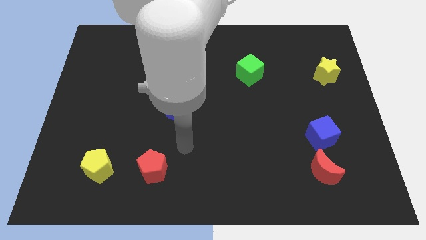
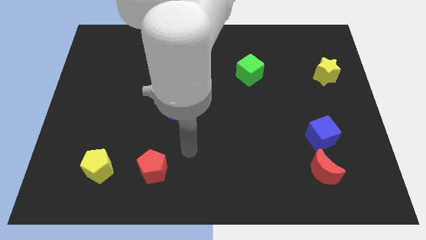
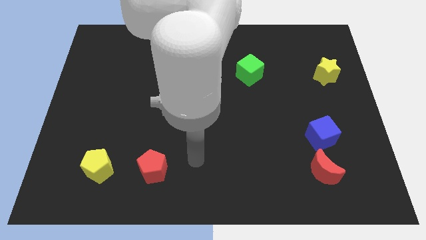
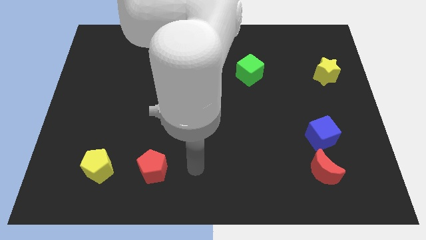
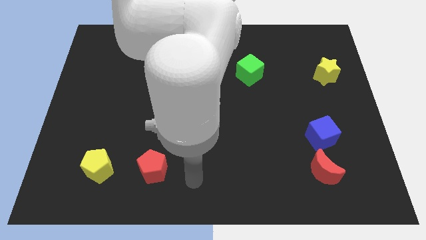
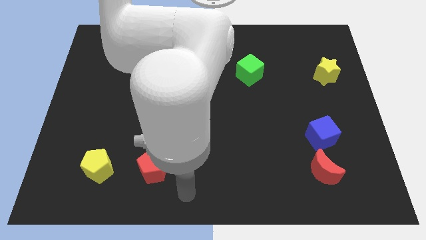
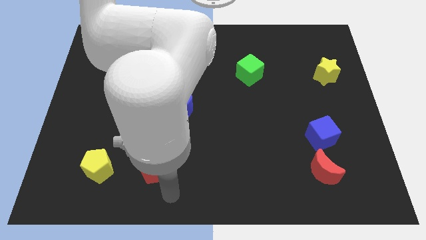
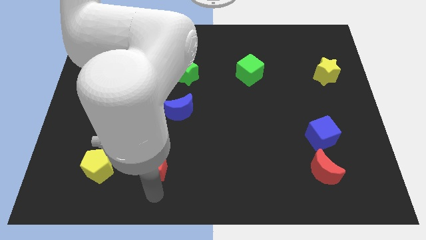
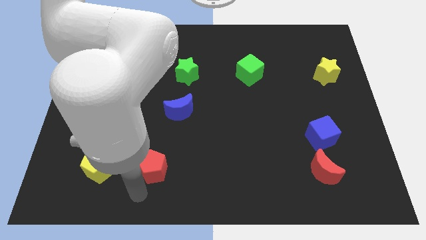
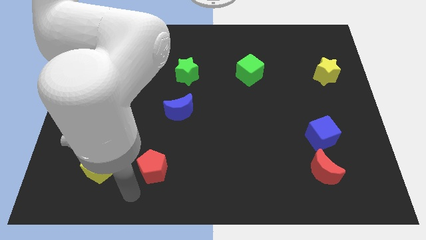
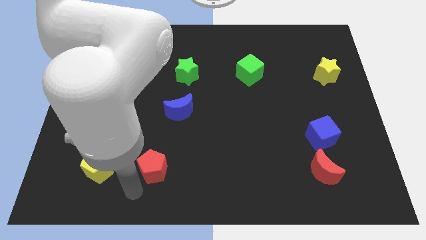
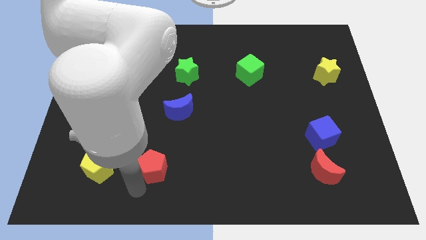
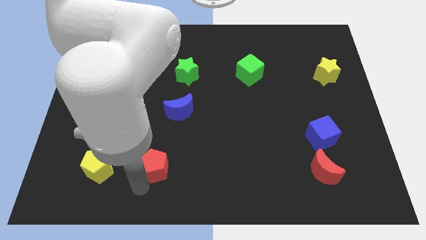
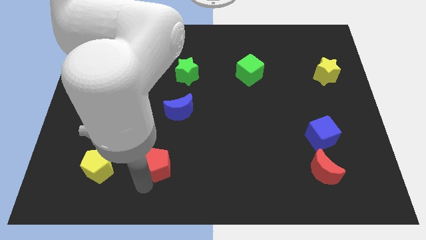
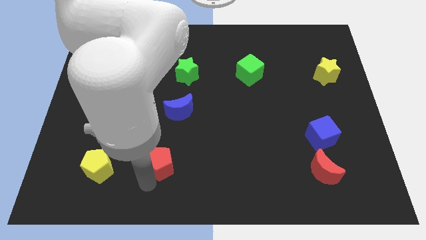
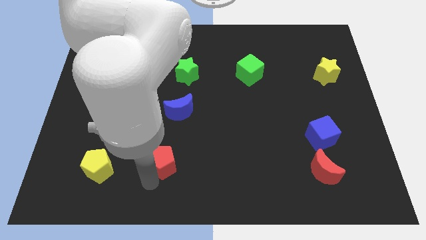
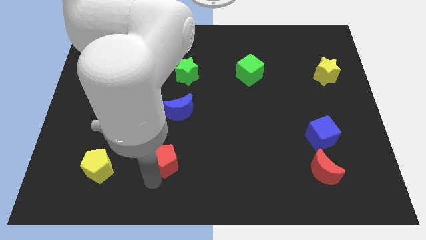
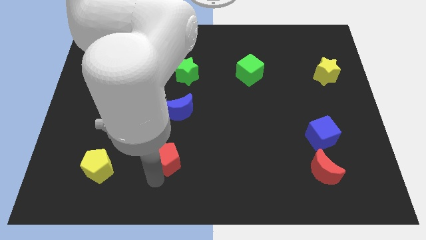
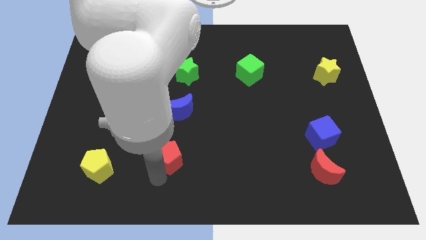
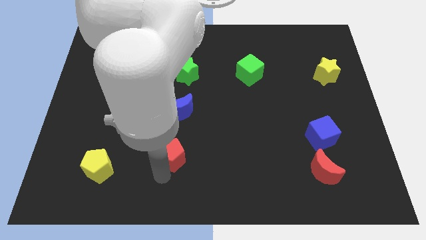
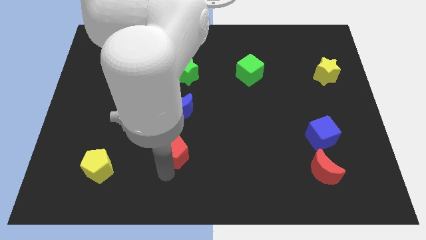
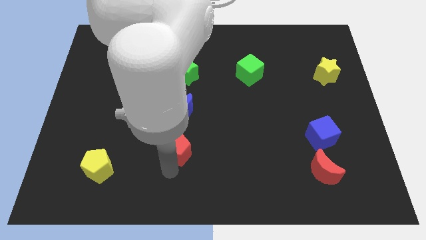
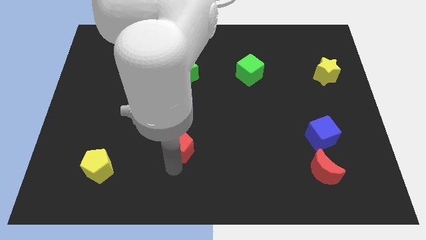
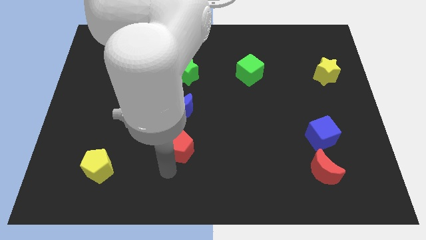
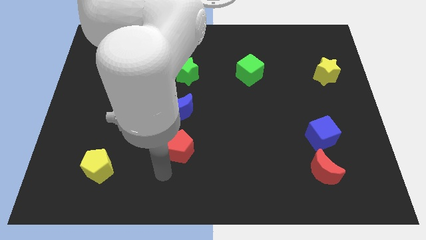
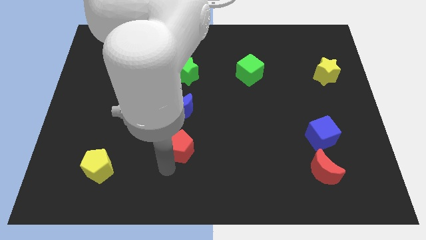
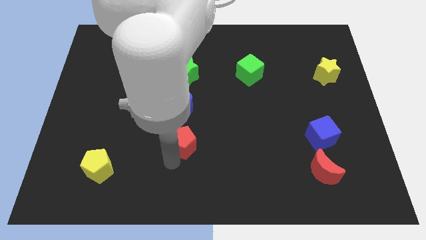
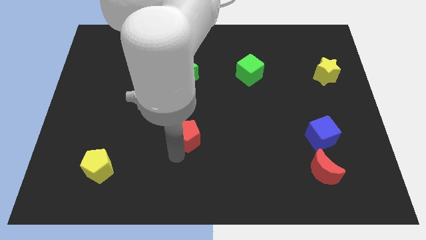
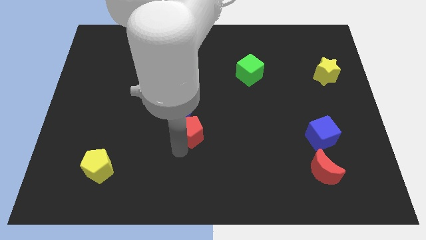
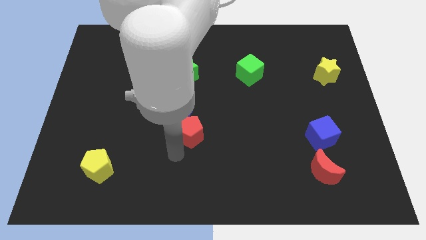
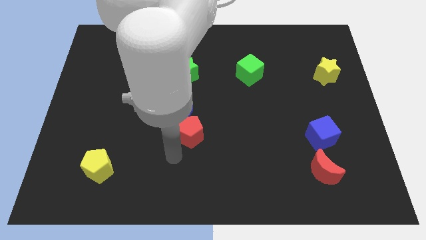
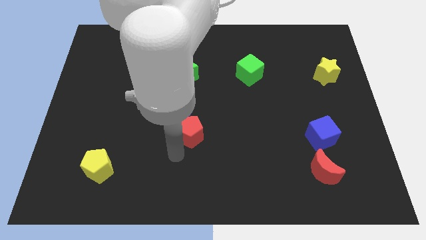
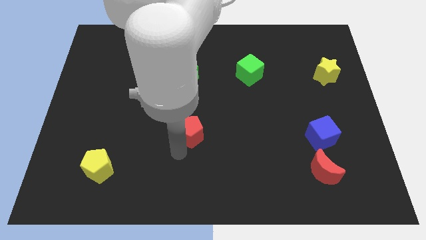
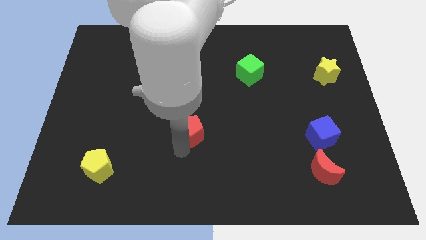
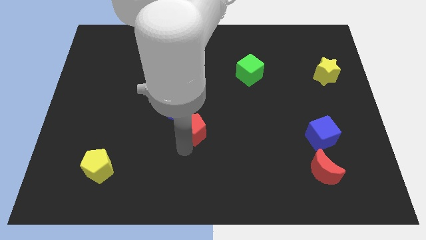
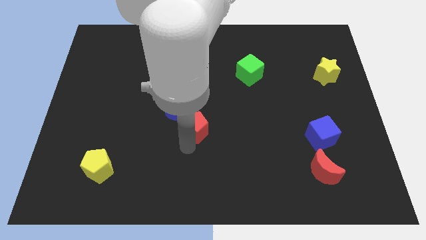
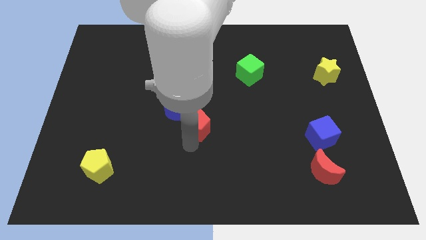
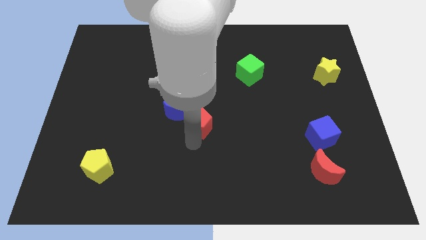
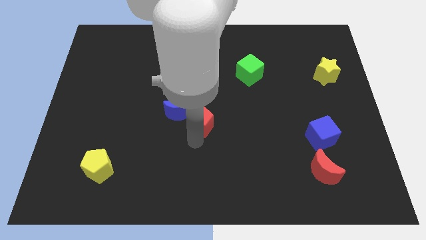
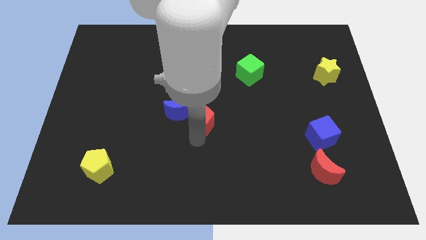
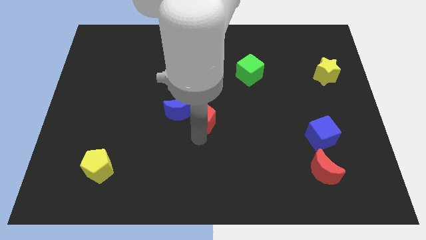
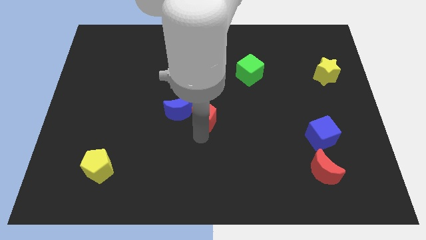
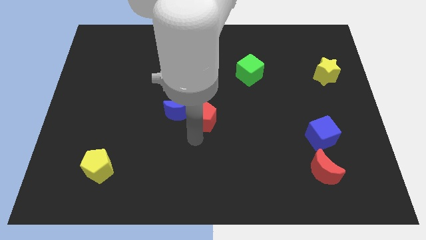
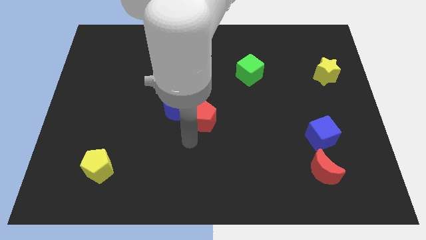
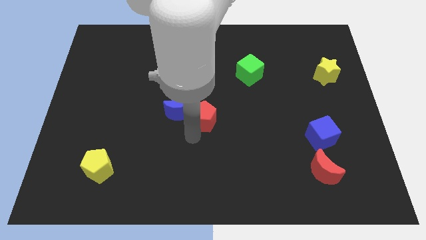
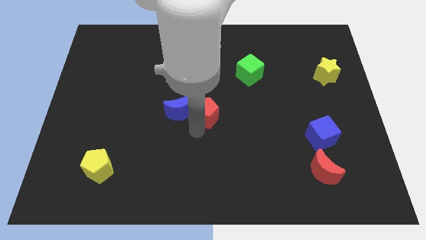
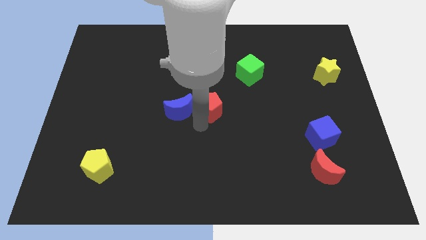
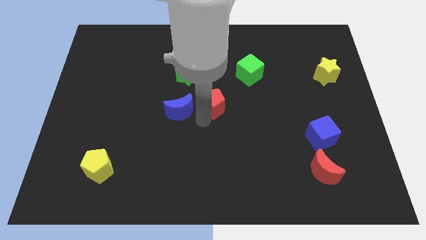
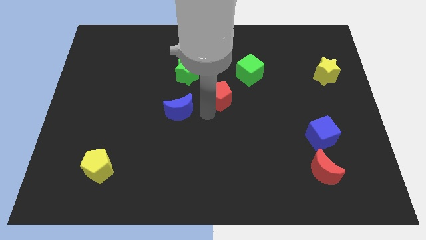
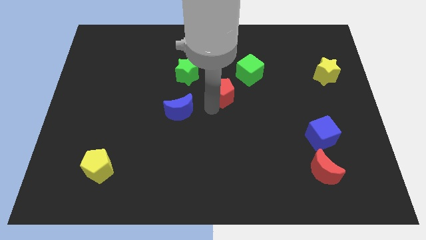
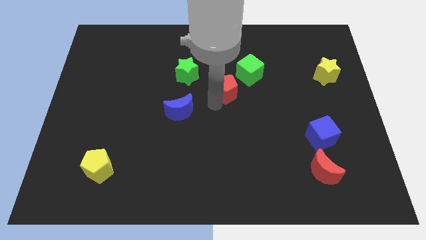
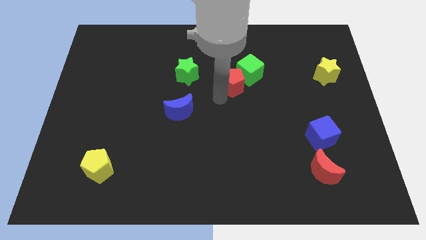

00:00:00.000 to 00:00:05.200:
move the red pentagon towards the green cube
